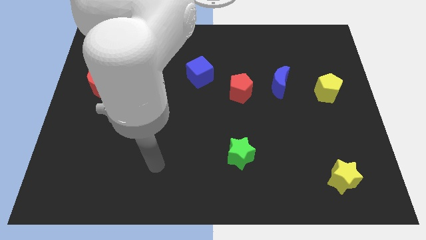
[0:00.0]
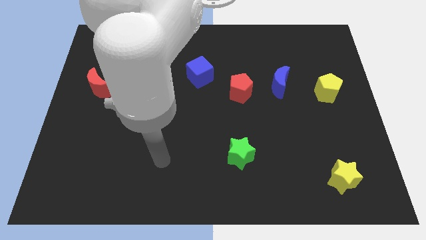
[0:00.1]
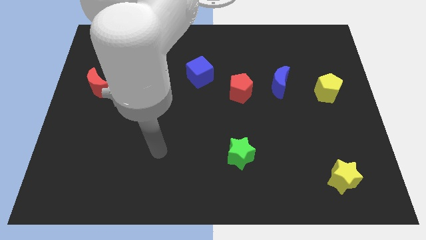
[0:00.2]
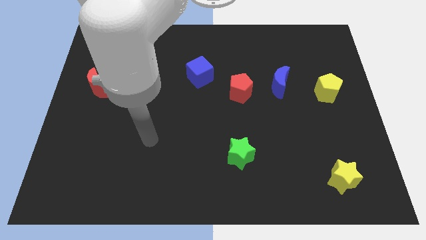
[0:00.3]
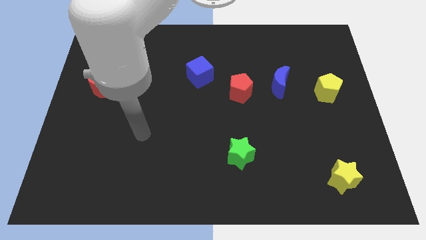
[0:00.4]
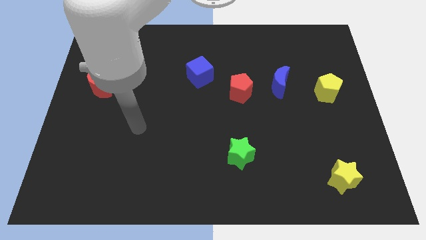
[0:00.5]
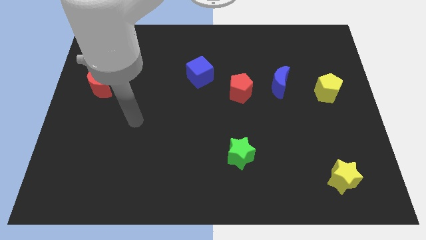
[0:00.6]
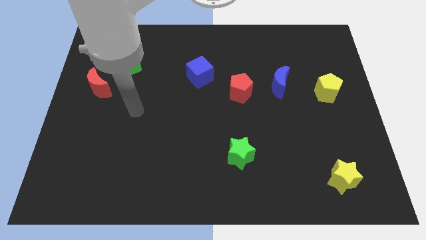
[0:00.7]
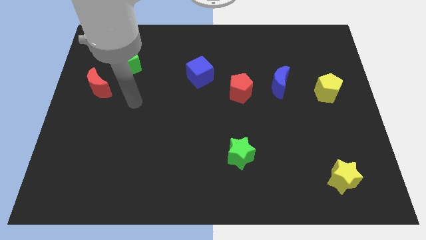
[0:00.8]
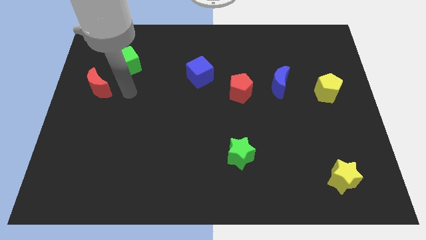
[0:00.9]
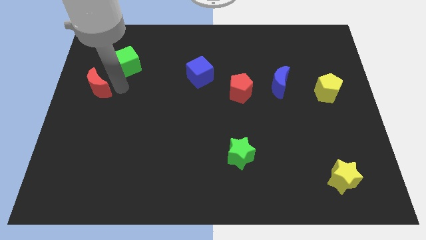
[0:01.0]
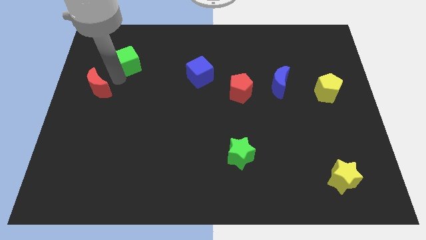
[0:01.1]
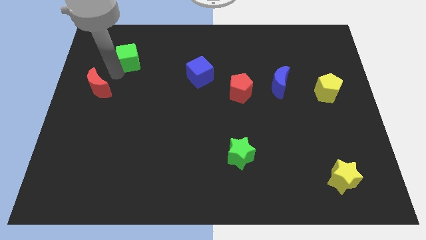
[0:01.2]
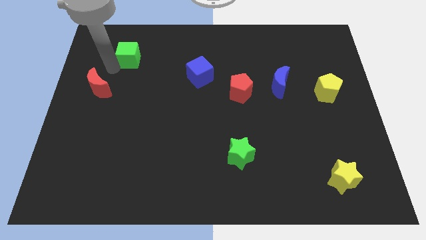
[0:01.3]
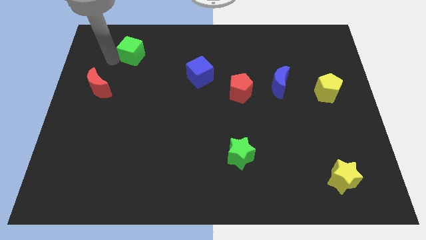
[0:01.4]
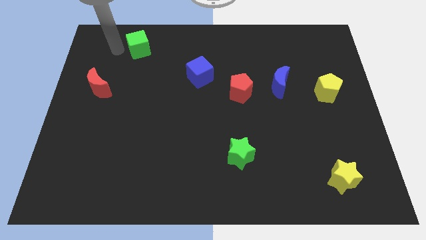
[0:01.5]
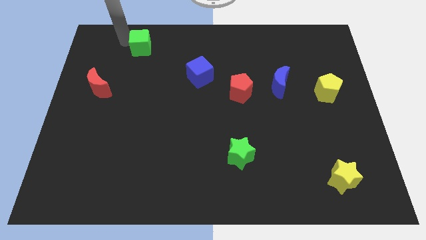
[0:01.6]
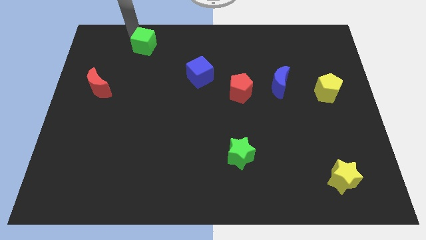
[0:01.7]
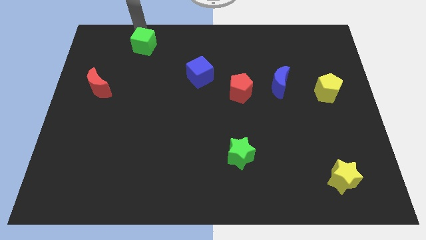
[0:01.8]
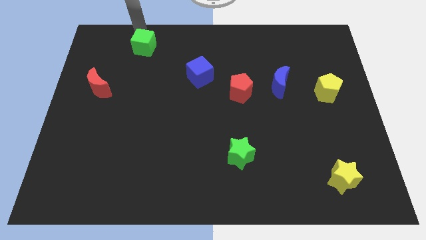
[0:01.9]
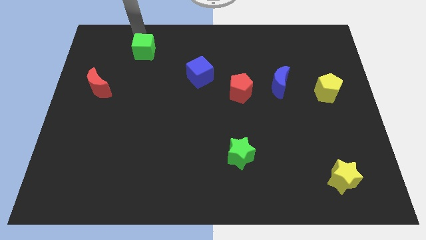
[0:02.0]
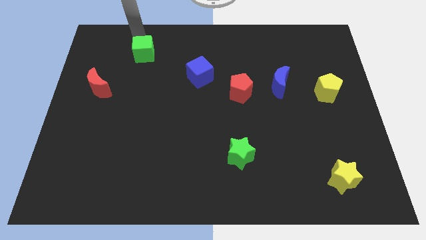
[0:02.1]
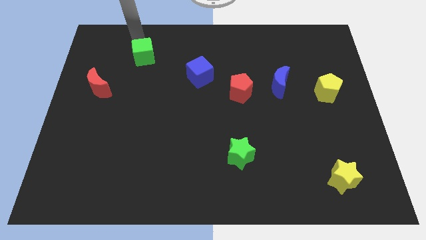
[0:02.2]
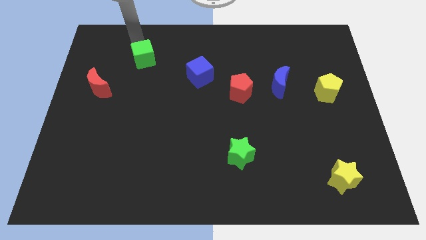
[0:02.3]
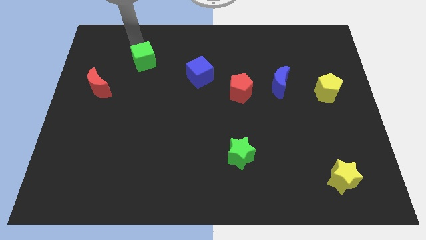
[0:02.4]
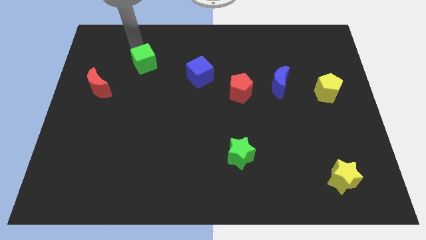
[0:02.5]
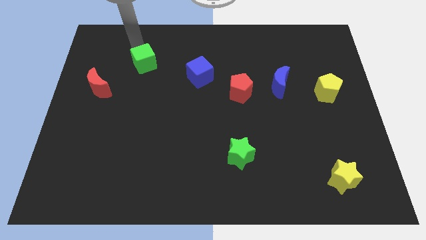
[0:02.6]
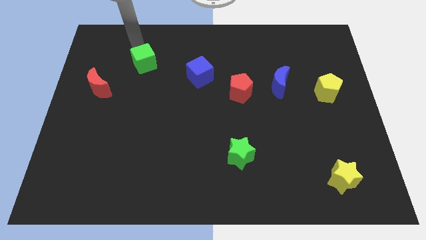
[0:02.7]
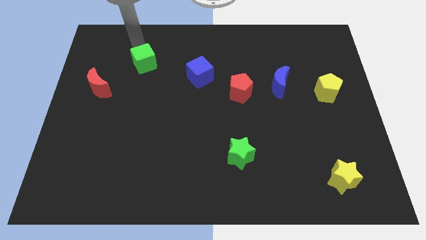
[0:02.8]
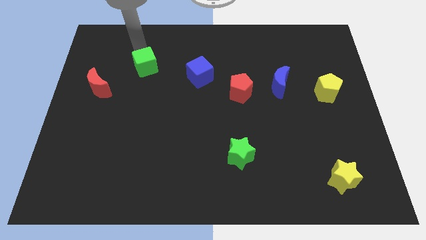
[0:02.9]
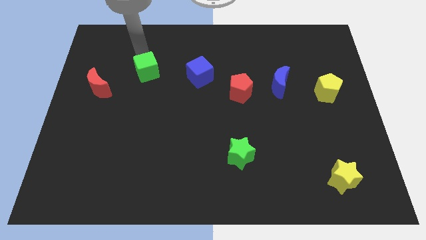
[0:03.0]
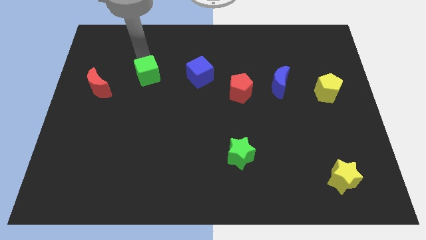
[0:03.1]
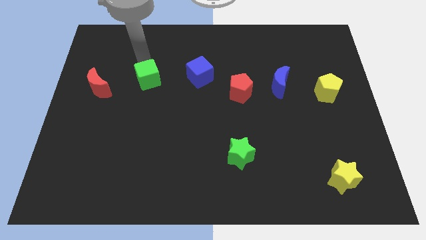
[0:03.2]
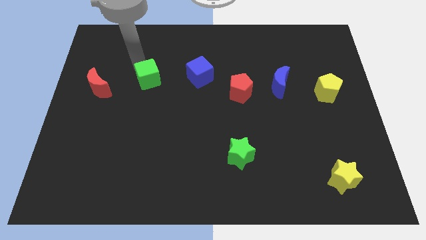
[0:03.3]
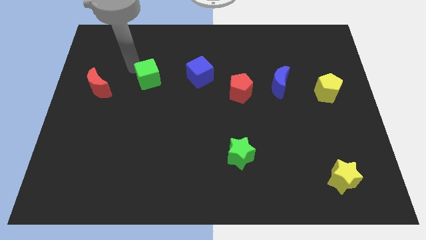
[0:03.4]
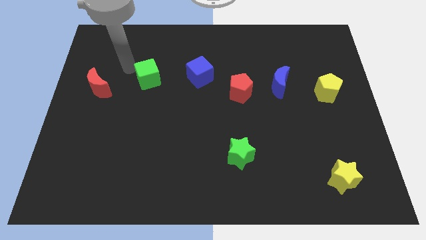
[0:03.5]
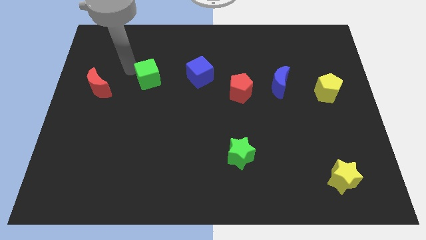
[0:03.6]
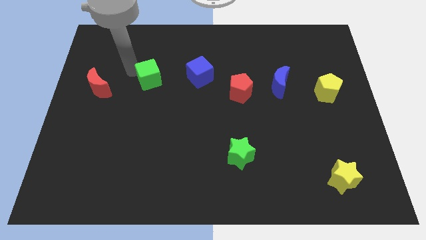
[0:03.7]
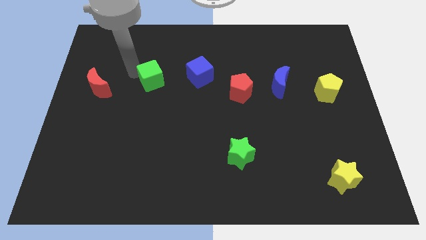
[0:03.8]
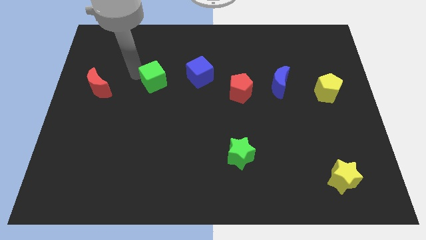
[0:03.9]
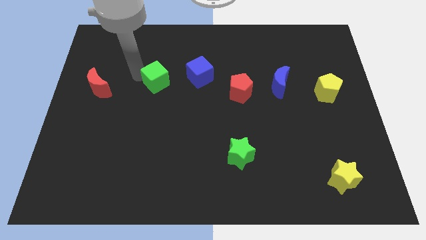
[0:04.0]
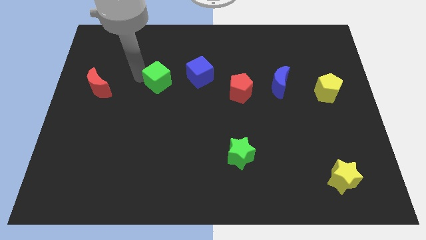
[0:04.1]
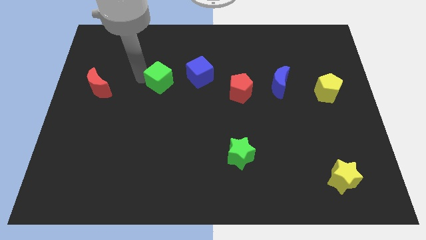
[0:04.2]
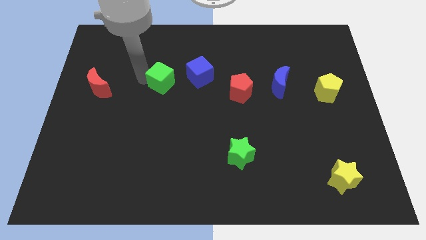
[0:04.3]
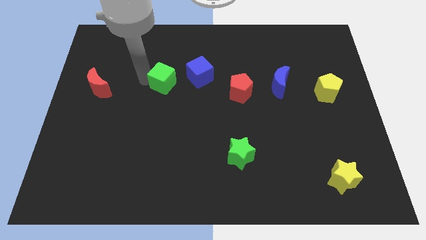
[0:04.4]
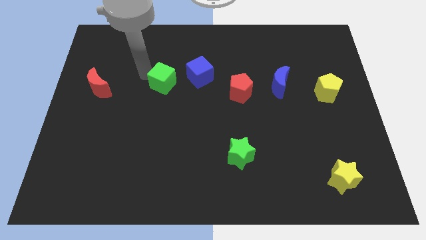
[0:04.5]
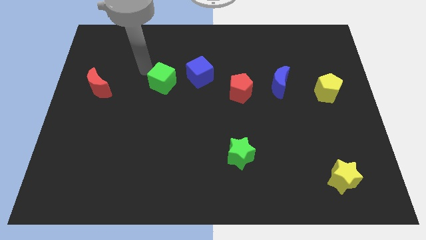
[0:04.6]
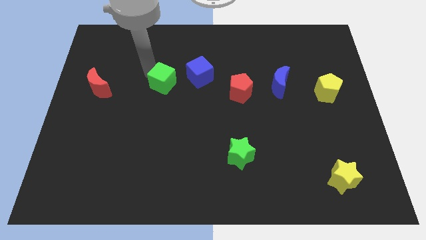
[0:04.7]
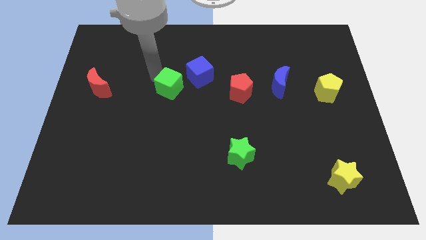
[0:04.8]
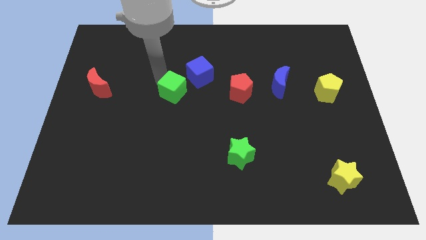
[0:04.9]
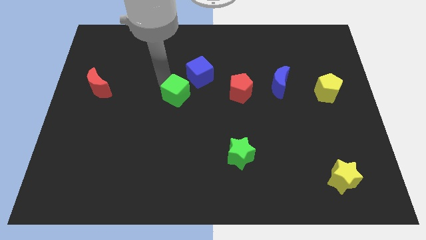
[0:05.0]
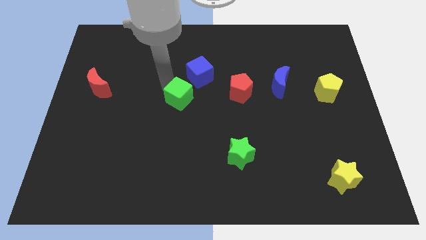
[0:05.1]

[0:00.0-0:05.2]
put the green cube to the bottom side of the blue cube

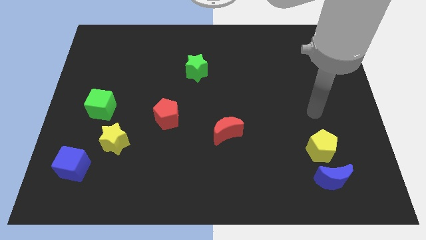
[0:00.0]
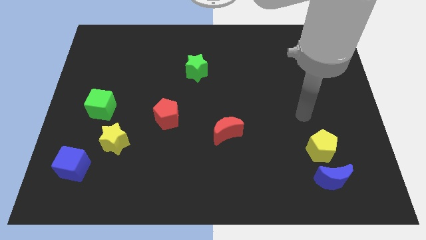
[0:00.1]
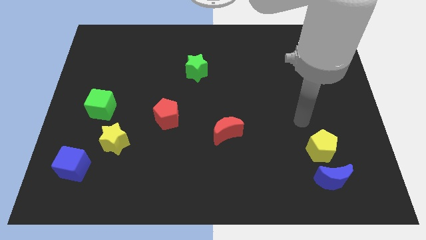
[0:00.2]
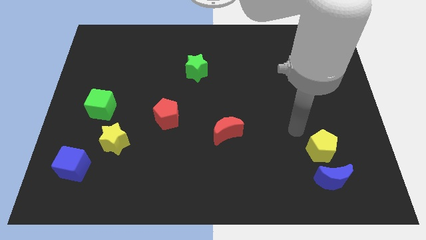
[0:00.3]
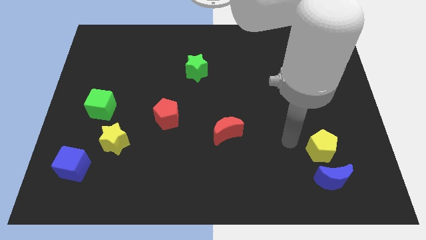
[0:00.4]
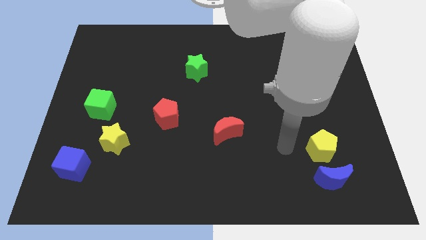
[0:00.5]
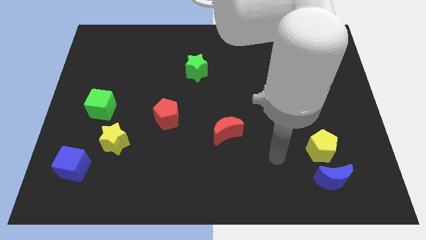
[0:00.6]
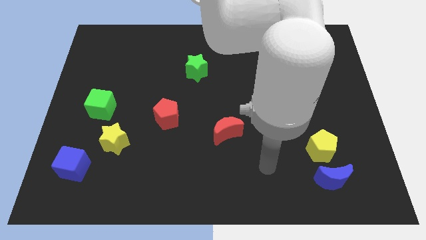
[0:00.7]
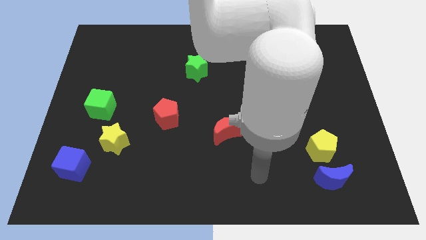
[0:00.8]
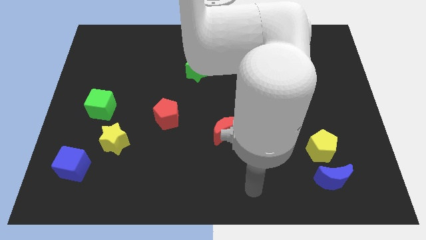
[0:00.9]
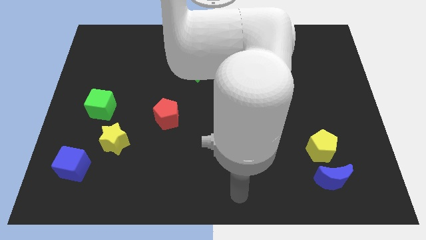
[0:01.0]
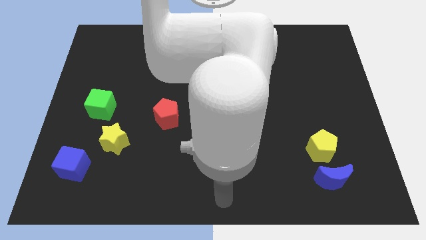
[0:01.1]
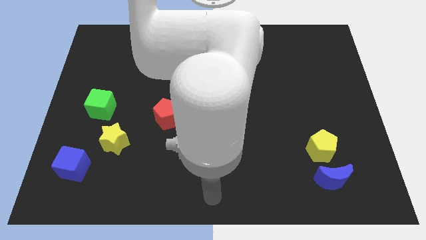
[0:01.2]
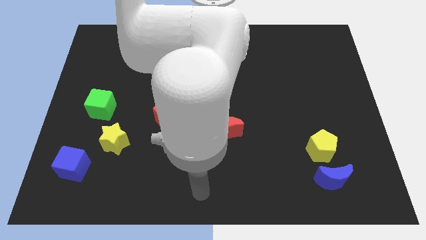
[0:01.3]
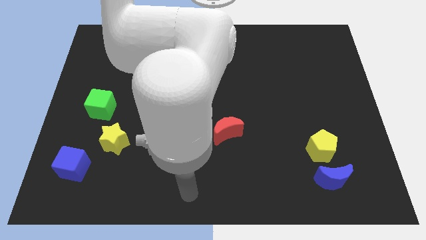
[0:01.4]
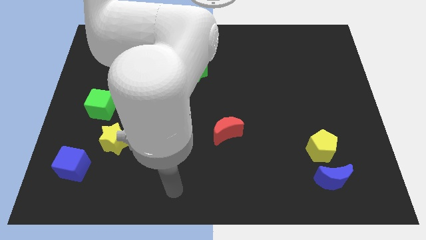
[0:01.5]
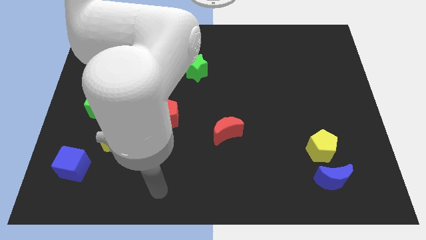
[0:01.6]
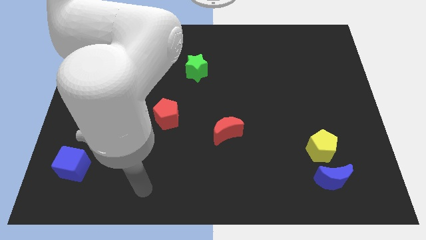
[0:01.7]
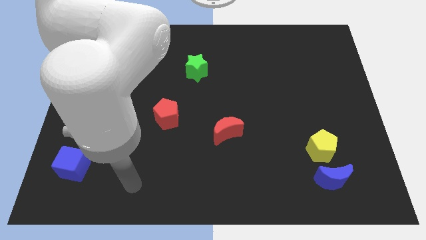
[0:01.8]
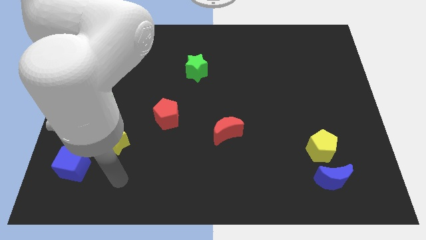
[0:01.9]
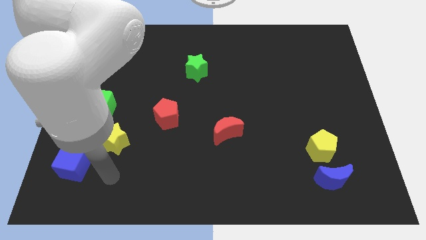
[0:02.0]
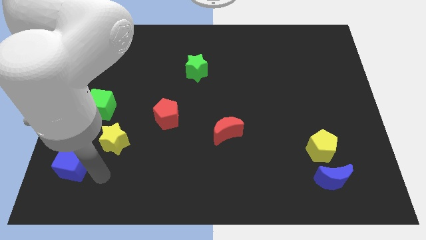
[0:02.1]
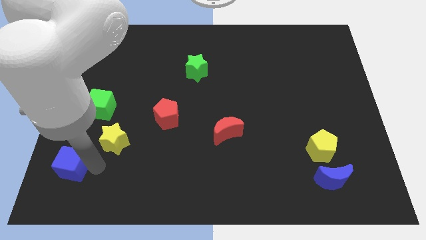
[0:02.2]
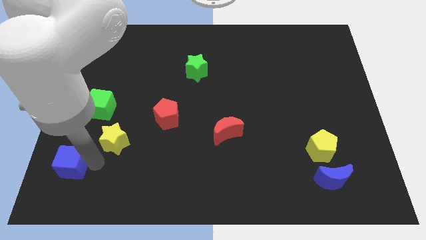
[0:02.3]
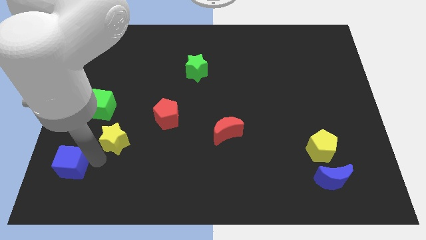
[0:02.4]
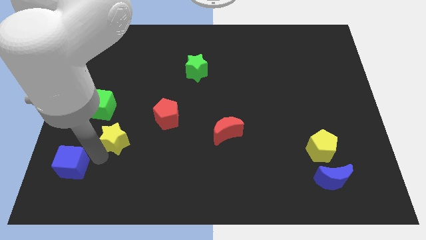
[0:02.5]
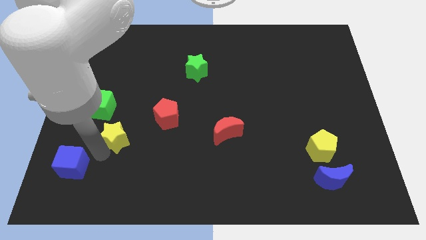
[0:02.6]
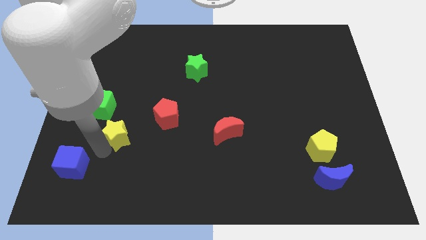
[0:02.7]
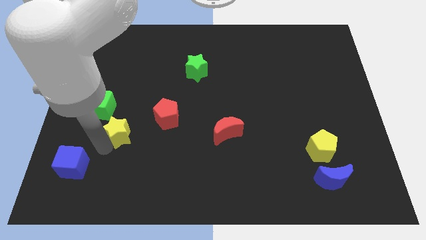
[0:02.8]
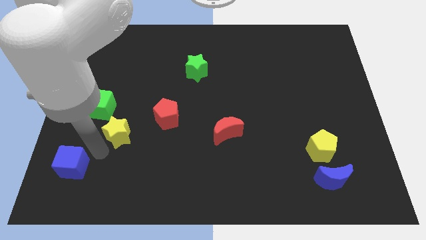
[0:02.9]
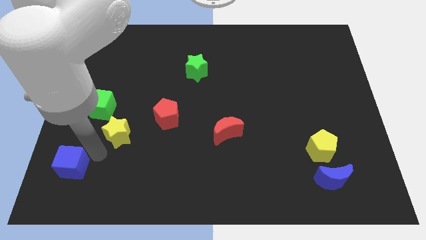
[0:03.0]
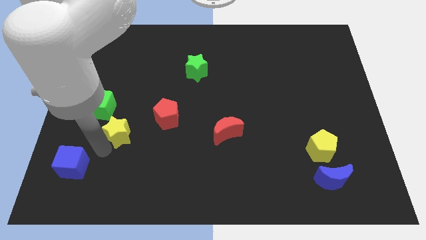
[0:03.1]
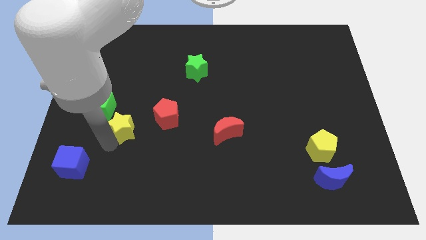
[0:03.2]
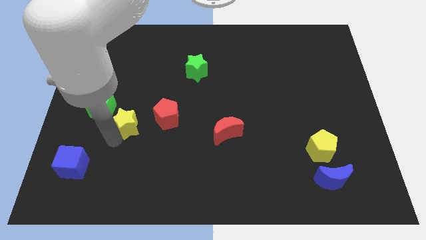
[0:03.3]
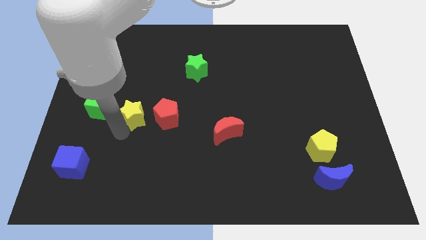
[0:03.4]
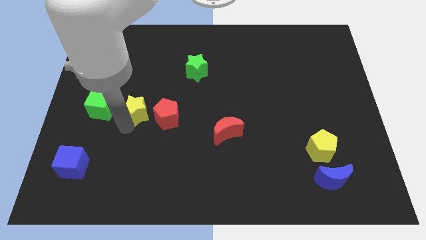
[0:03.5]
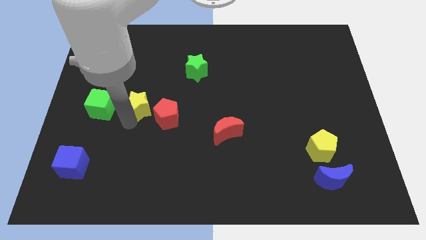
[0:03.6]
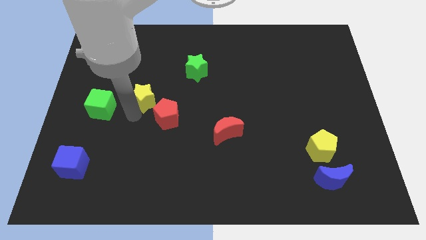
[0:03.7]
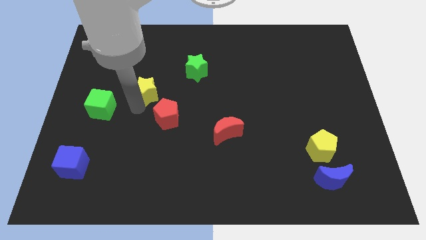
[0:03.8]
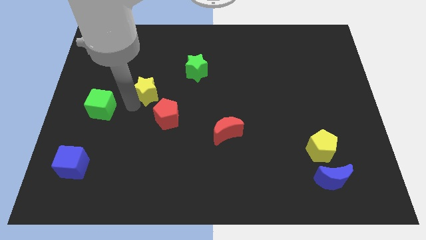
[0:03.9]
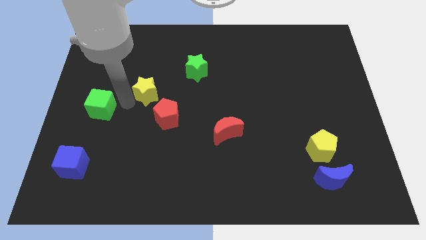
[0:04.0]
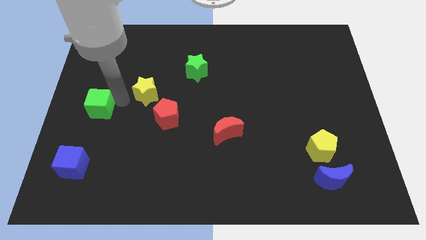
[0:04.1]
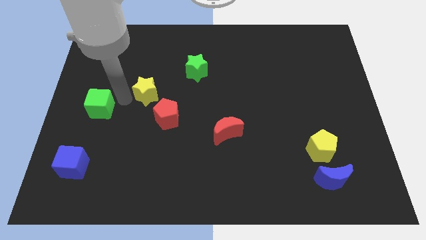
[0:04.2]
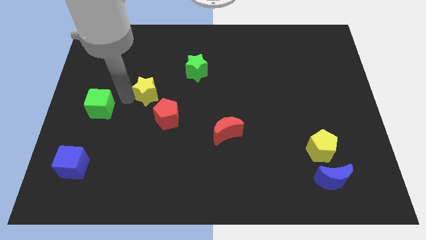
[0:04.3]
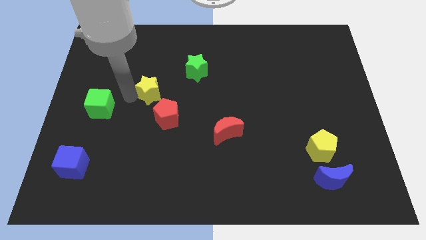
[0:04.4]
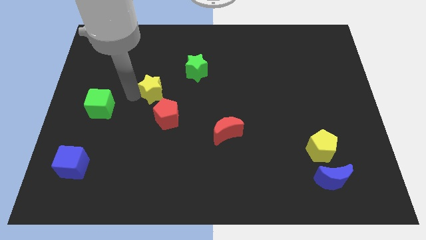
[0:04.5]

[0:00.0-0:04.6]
put the yellow star diagonally down and to the left of the green star
